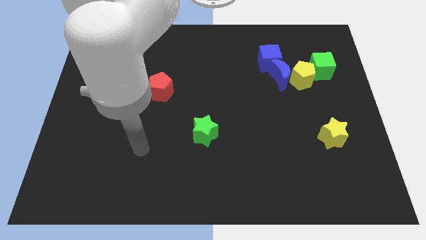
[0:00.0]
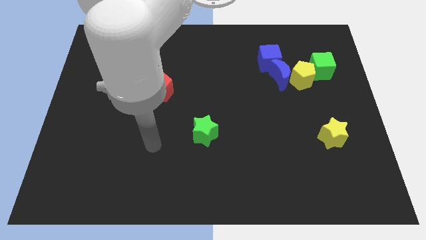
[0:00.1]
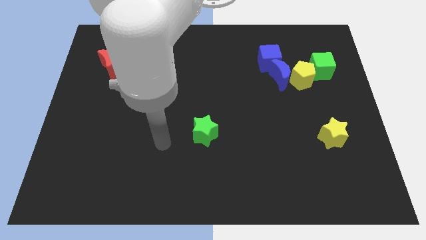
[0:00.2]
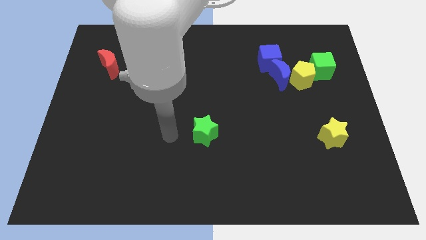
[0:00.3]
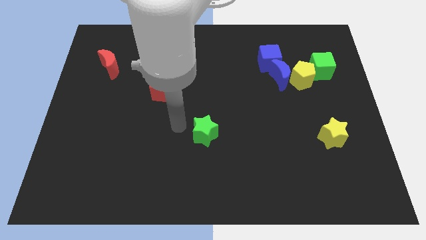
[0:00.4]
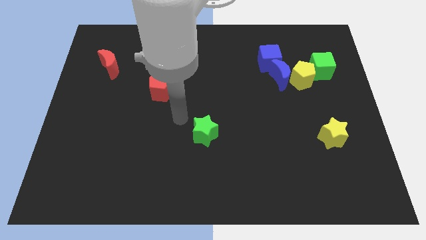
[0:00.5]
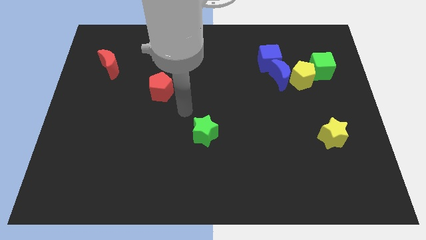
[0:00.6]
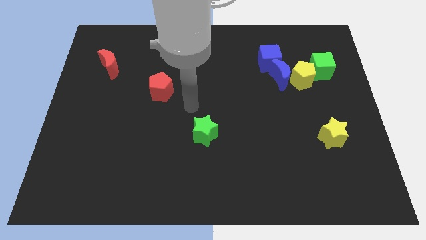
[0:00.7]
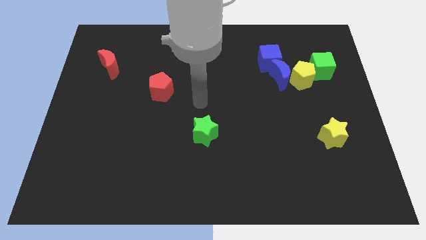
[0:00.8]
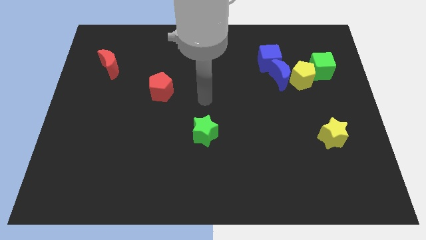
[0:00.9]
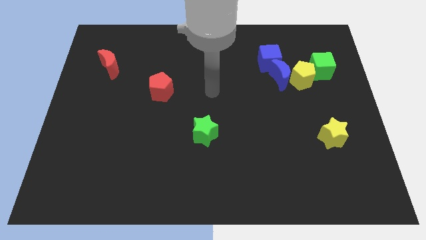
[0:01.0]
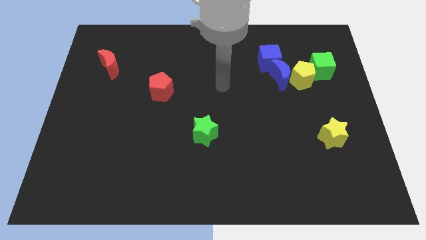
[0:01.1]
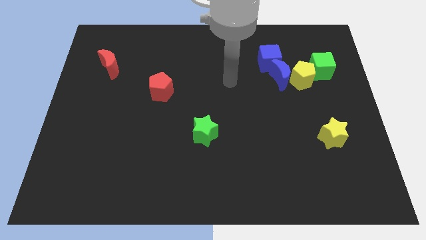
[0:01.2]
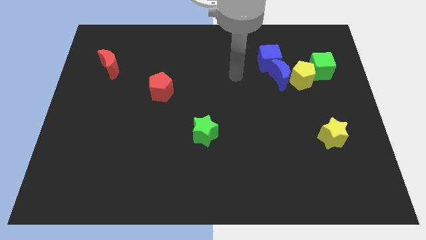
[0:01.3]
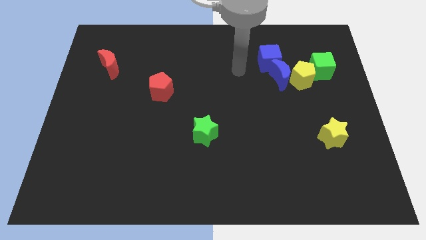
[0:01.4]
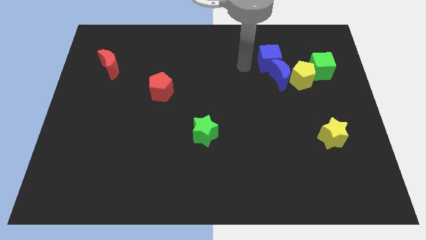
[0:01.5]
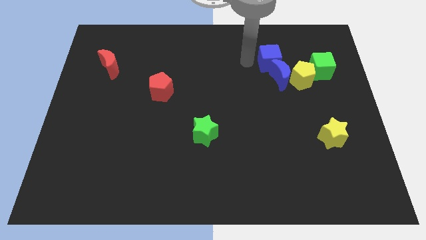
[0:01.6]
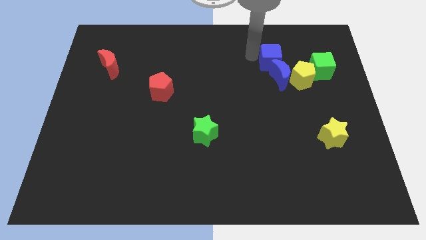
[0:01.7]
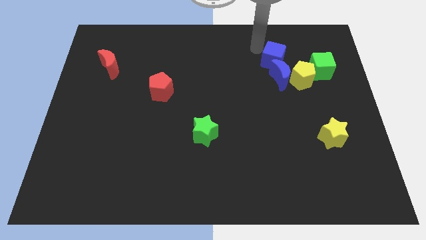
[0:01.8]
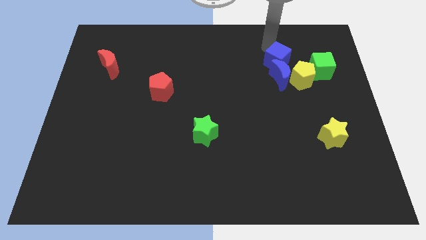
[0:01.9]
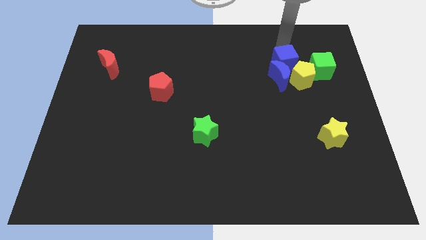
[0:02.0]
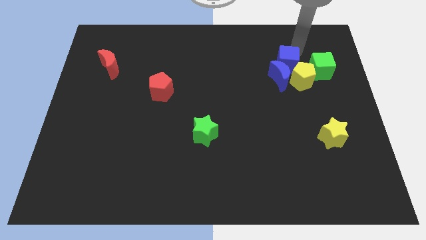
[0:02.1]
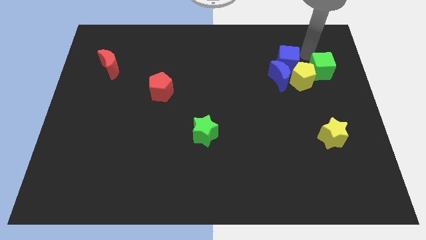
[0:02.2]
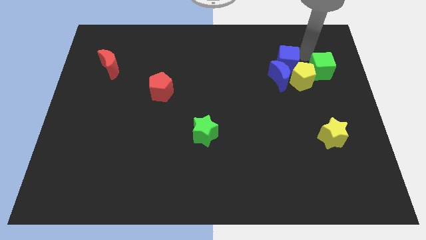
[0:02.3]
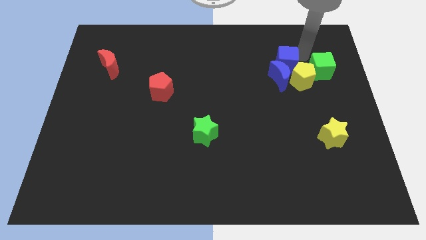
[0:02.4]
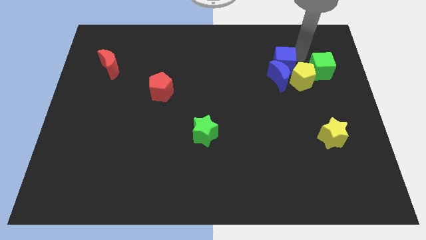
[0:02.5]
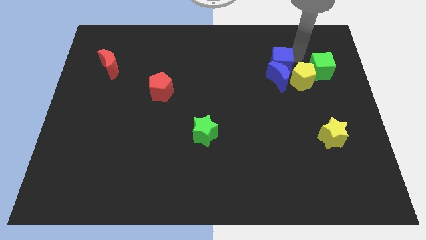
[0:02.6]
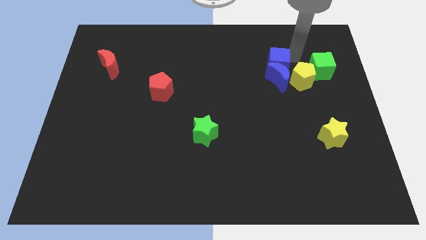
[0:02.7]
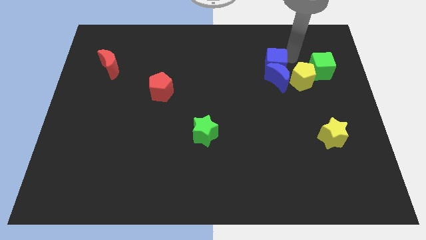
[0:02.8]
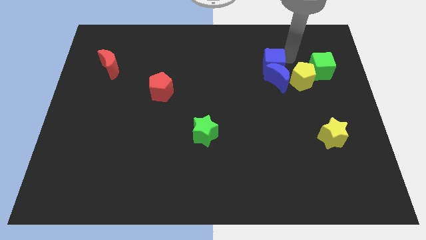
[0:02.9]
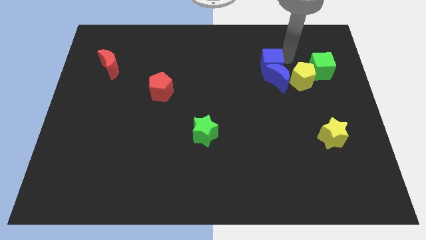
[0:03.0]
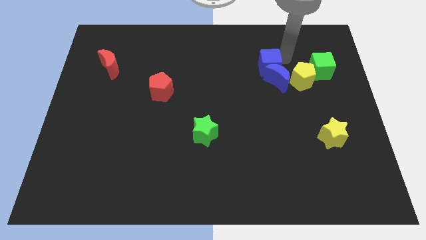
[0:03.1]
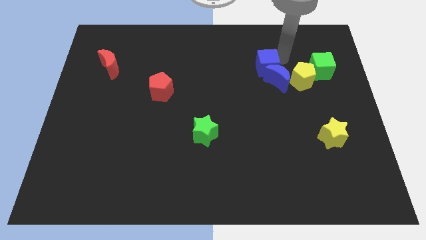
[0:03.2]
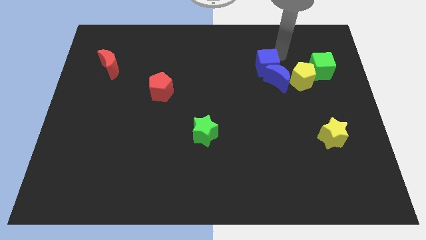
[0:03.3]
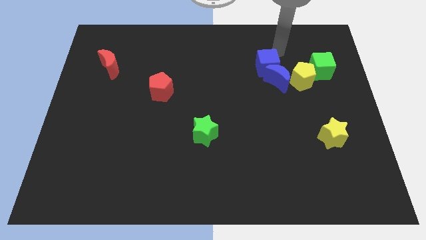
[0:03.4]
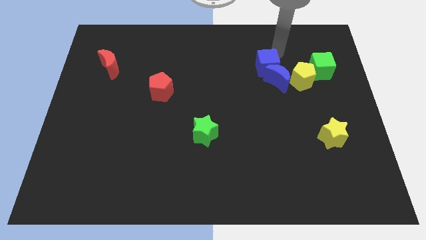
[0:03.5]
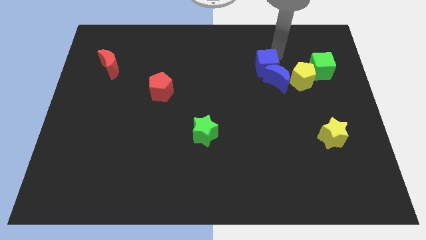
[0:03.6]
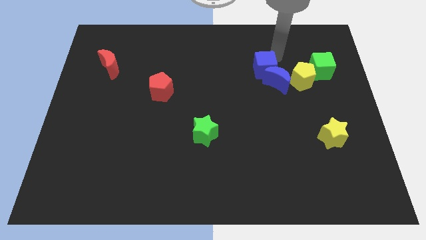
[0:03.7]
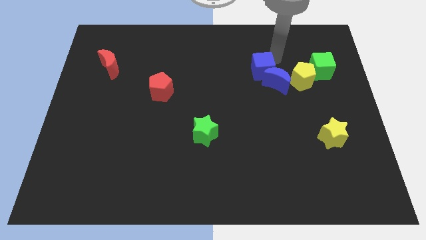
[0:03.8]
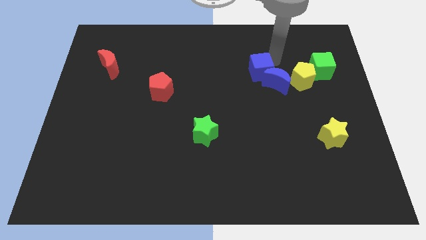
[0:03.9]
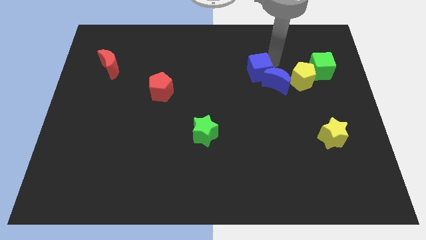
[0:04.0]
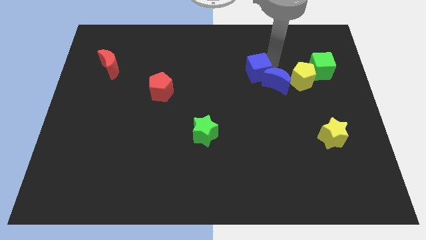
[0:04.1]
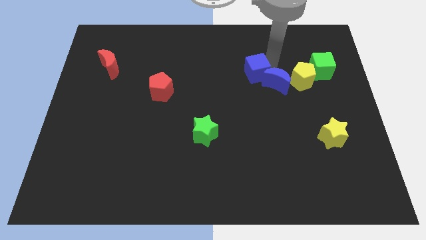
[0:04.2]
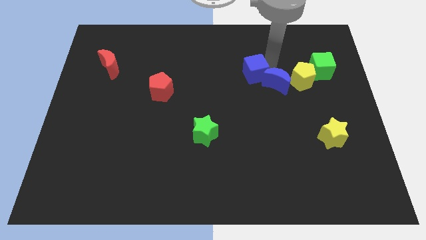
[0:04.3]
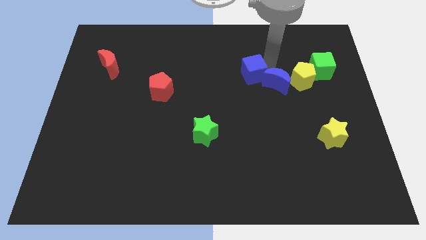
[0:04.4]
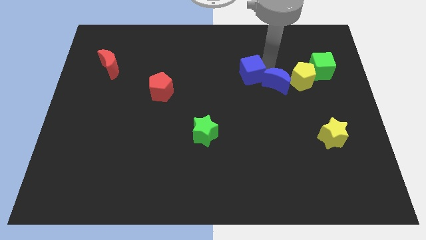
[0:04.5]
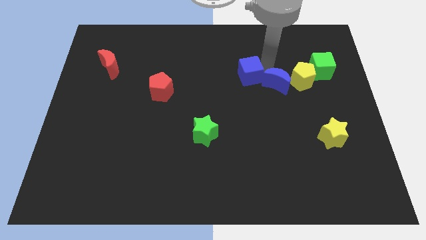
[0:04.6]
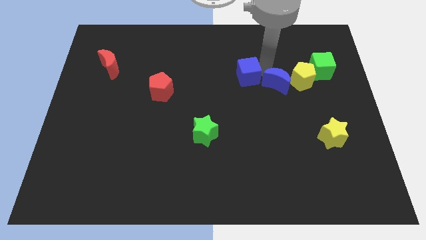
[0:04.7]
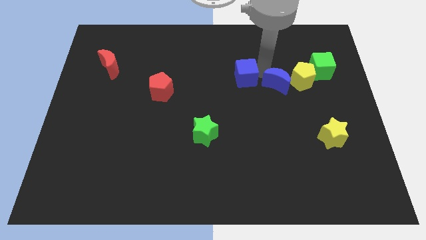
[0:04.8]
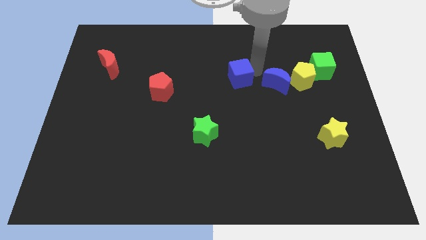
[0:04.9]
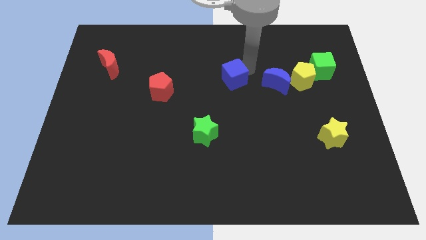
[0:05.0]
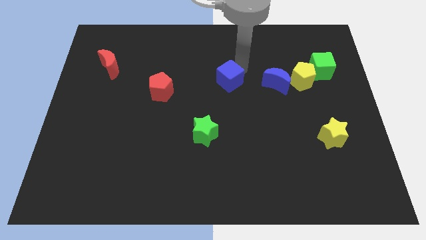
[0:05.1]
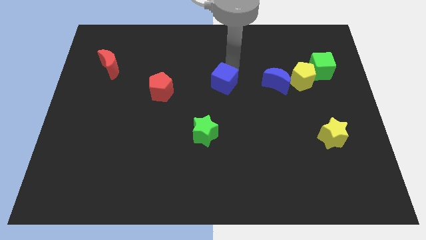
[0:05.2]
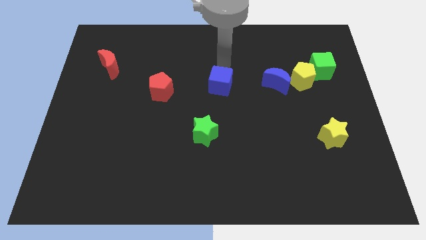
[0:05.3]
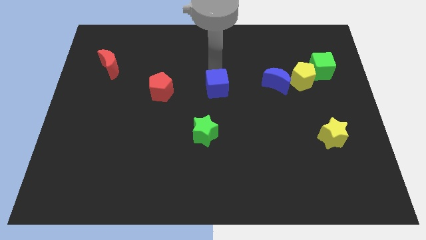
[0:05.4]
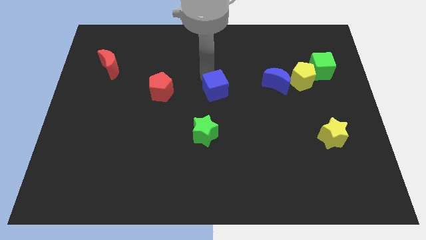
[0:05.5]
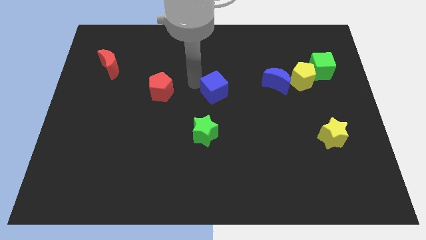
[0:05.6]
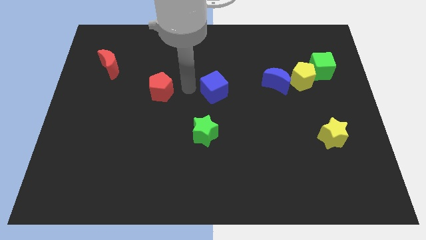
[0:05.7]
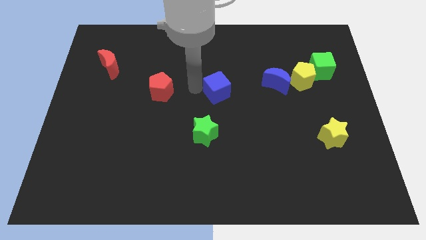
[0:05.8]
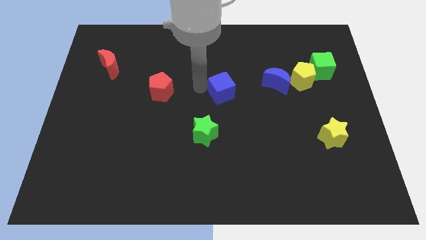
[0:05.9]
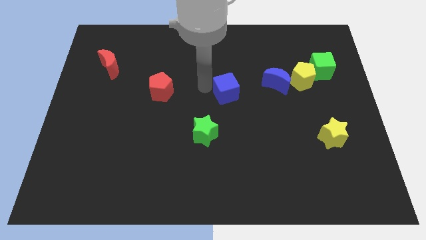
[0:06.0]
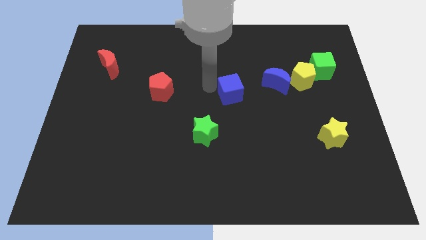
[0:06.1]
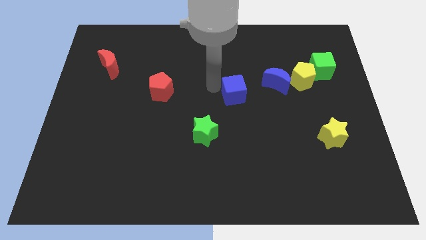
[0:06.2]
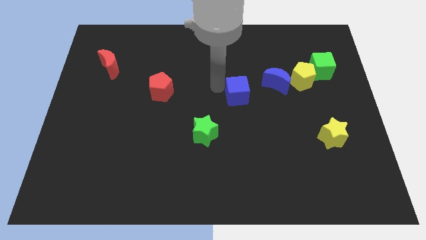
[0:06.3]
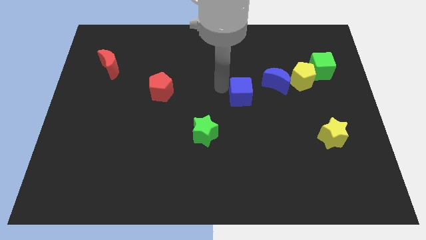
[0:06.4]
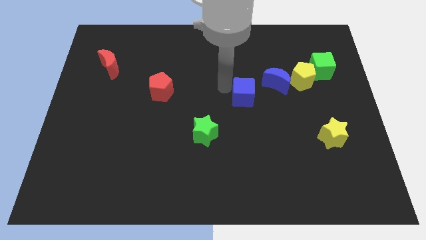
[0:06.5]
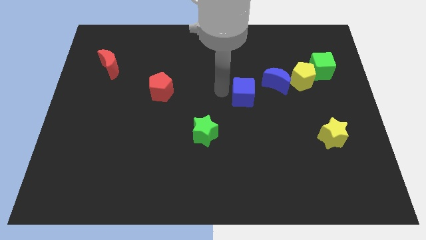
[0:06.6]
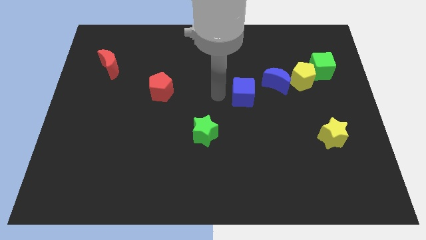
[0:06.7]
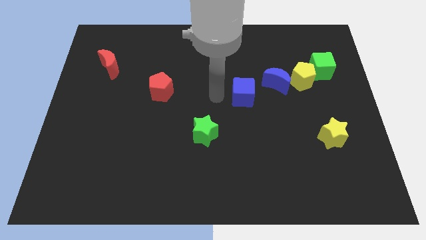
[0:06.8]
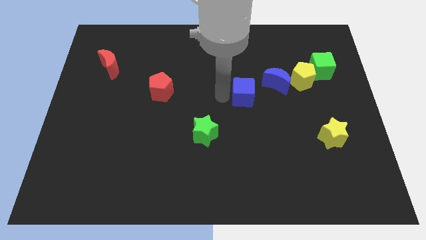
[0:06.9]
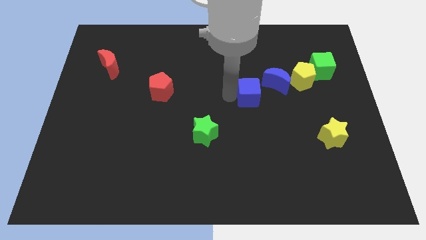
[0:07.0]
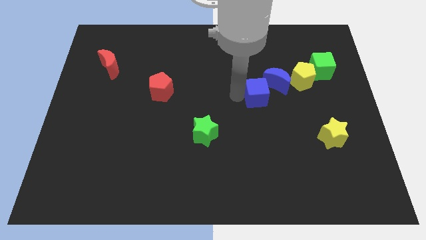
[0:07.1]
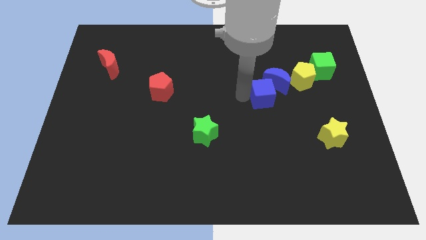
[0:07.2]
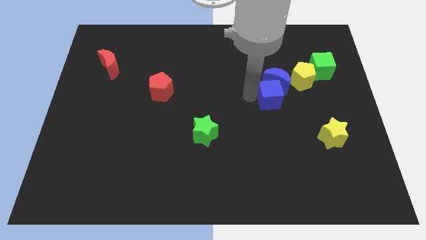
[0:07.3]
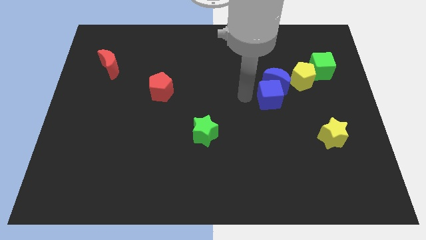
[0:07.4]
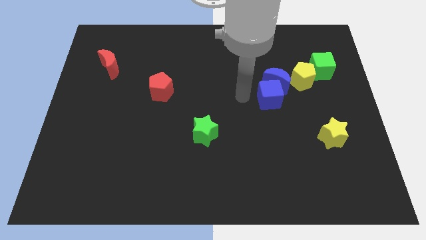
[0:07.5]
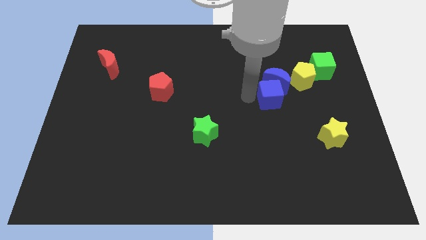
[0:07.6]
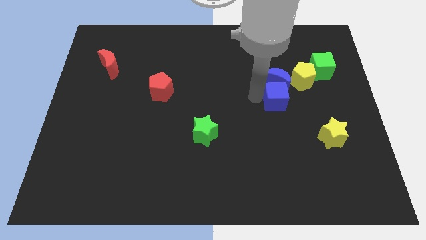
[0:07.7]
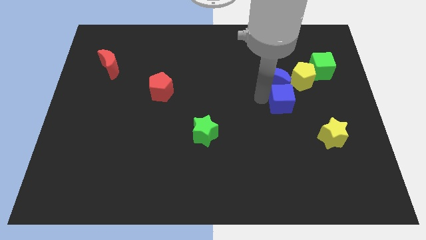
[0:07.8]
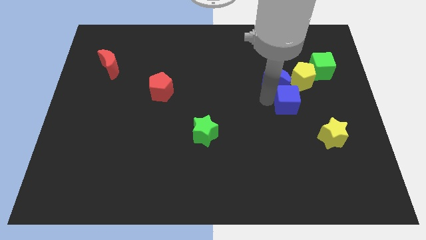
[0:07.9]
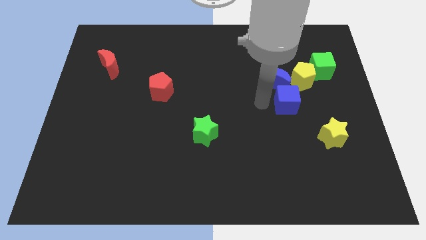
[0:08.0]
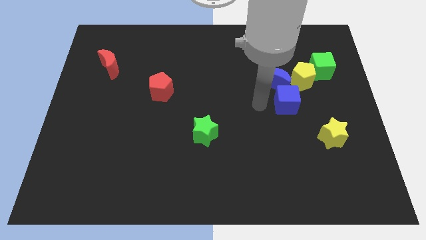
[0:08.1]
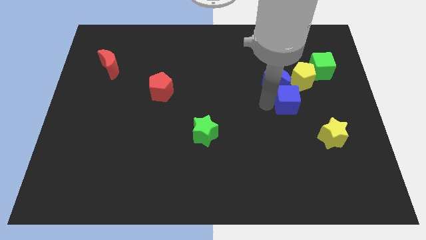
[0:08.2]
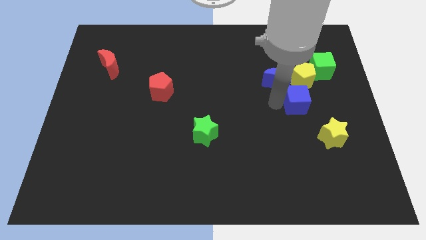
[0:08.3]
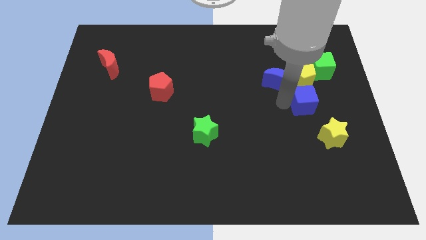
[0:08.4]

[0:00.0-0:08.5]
push the blue cube to the top side of the yellow star
